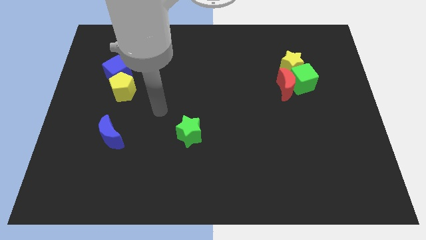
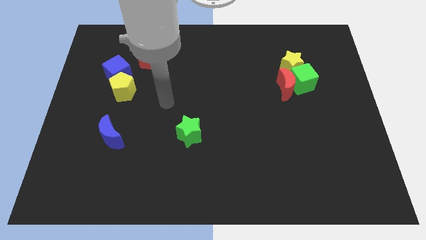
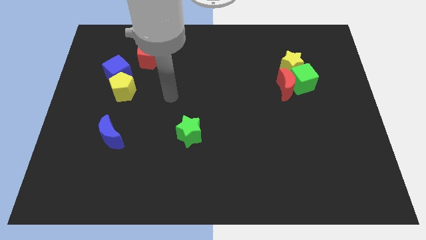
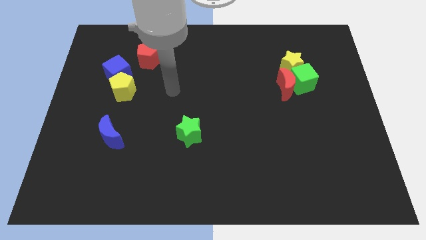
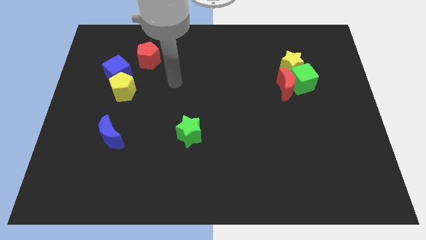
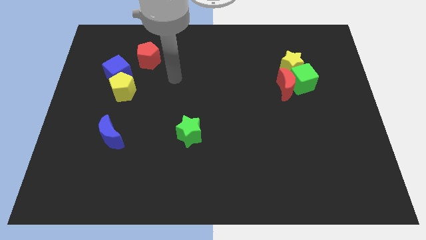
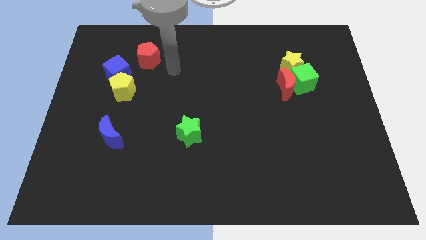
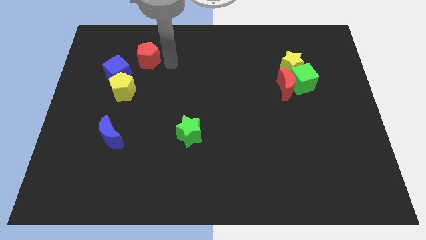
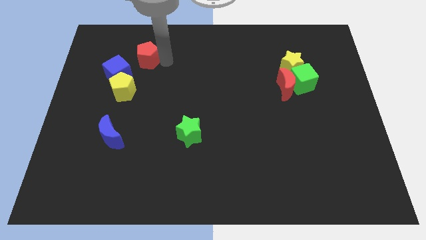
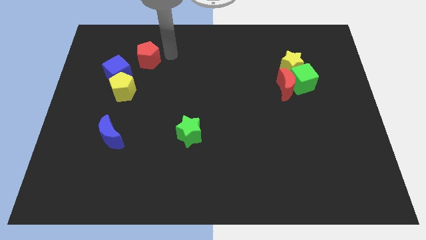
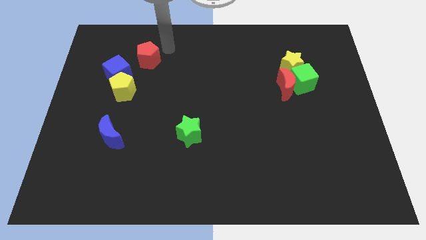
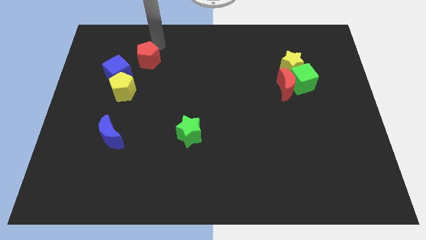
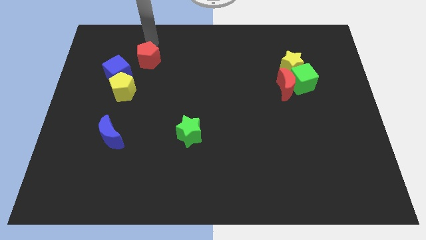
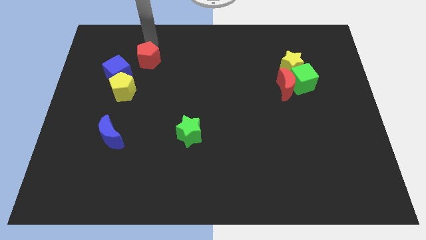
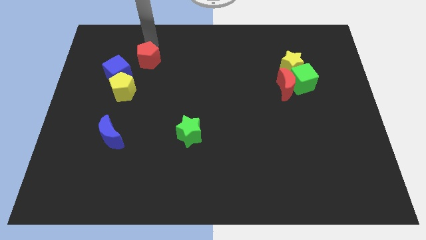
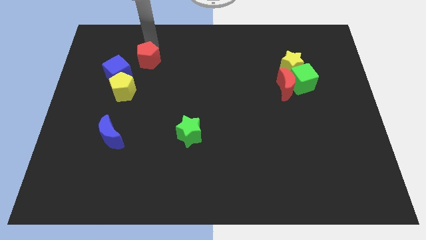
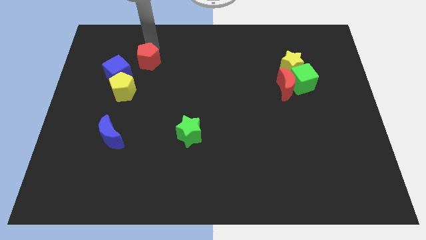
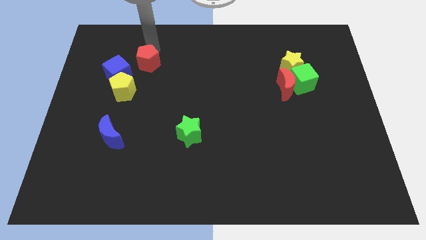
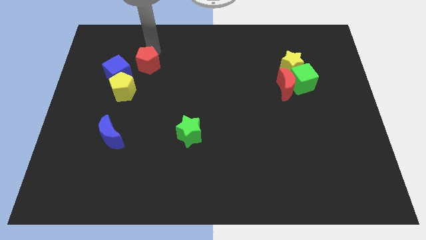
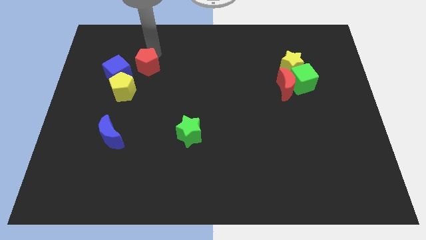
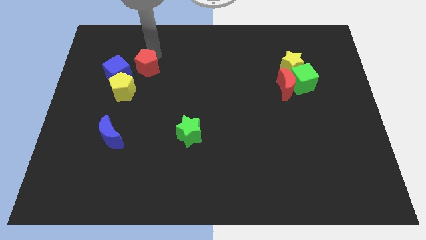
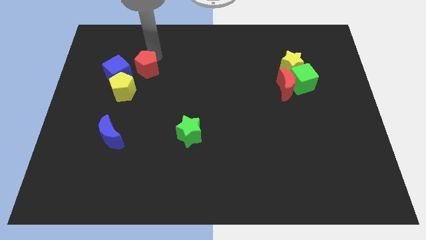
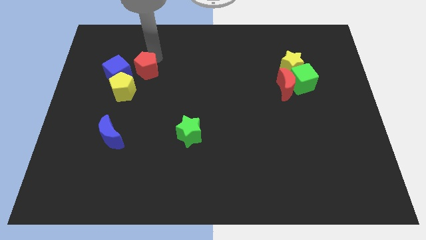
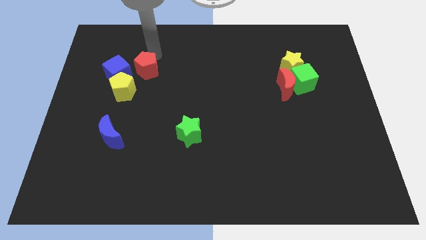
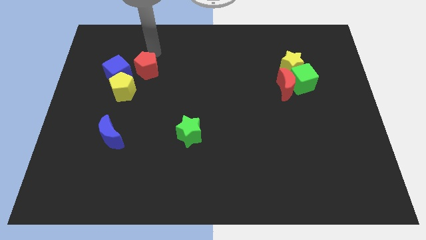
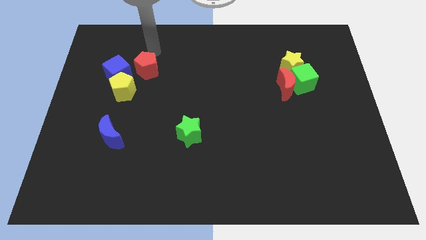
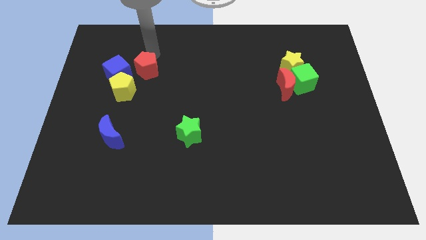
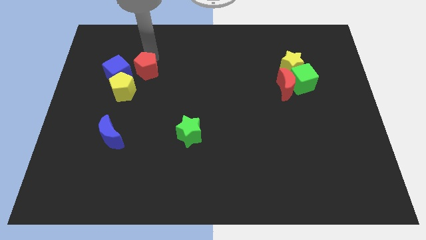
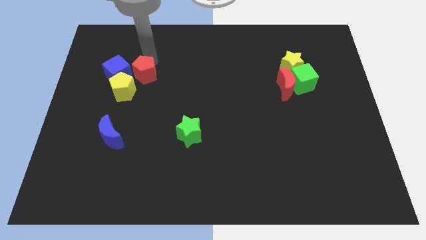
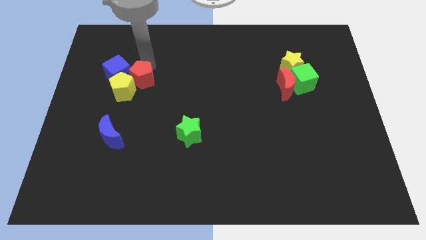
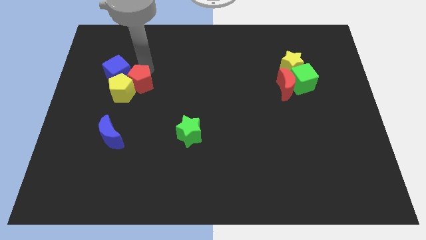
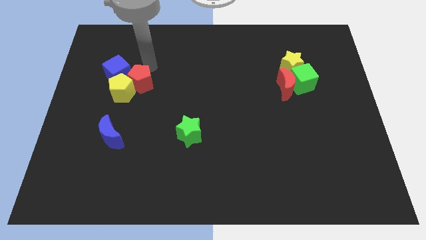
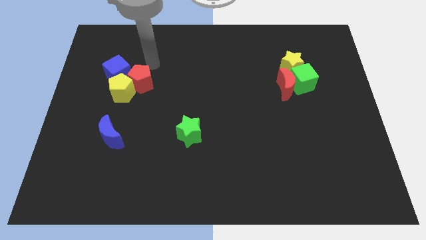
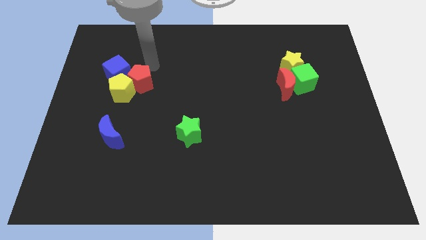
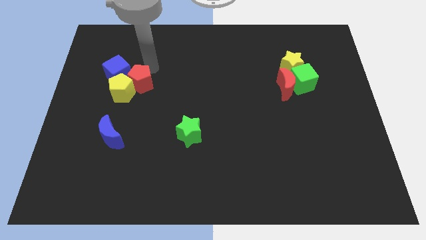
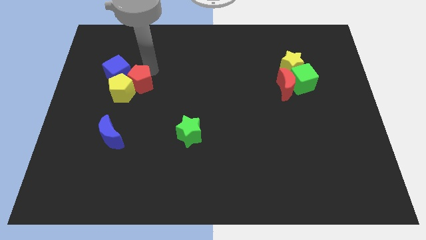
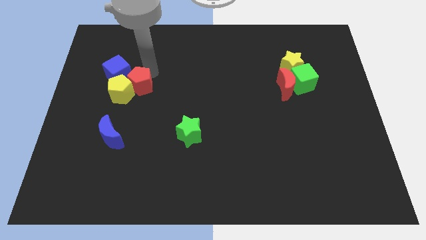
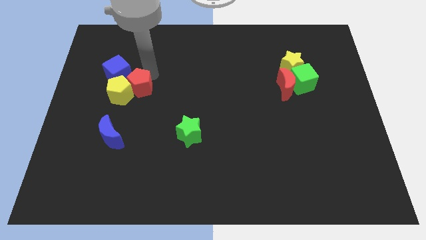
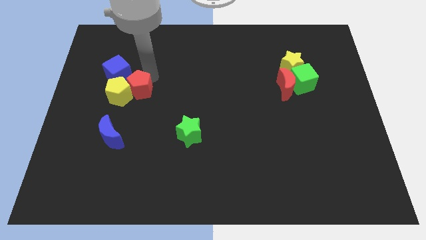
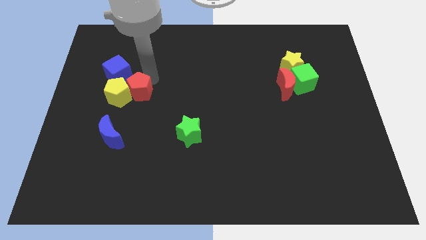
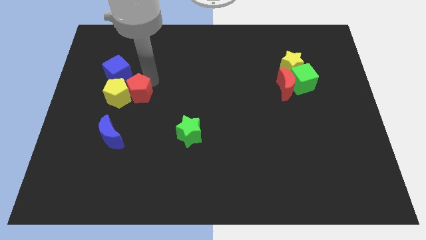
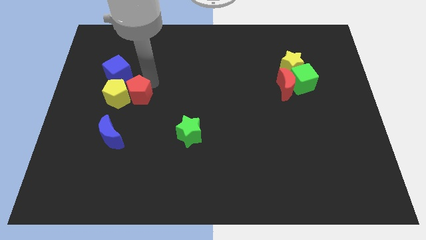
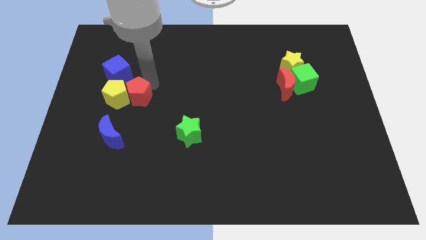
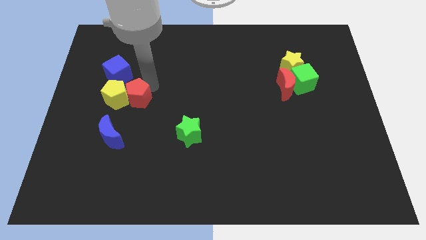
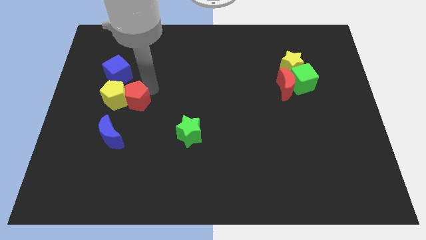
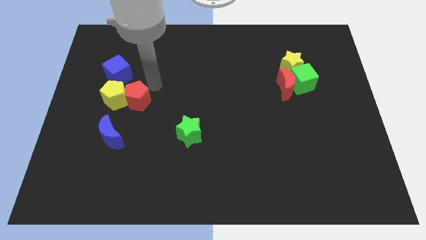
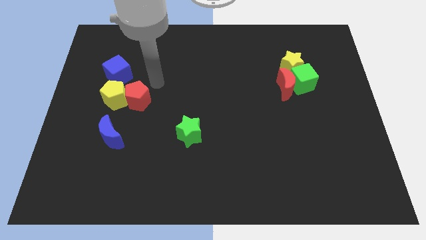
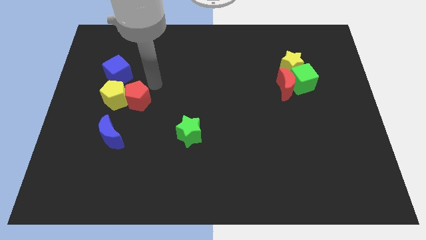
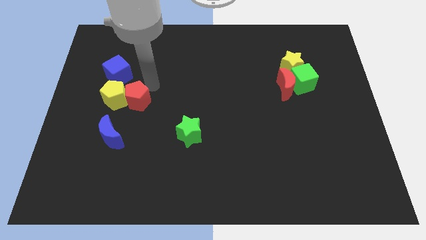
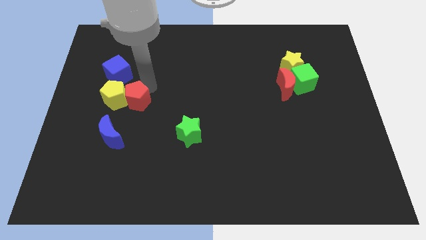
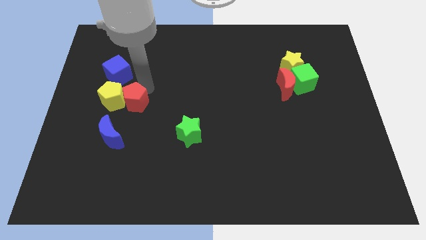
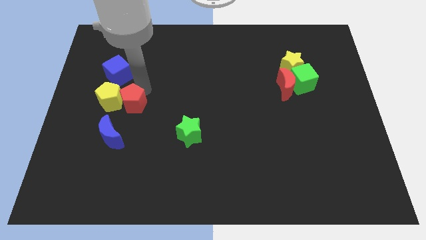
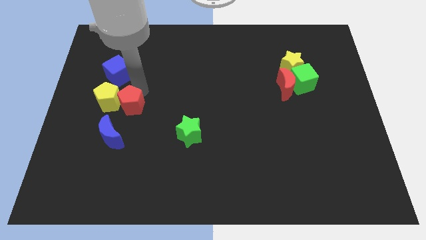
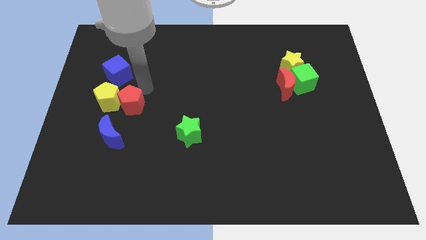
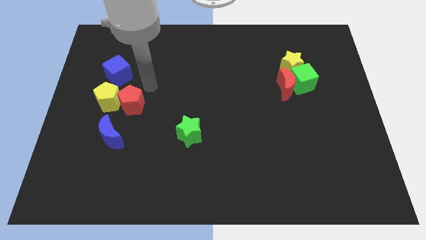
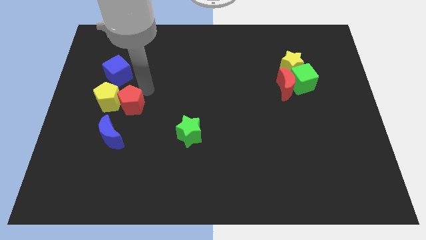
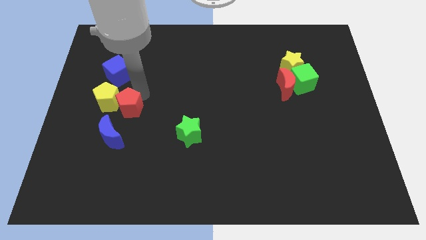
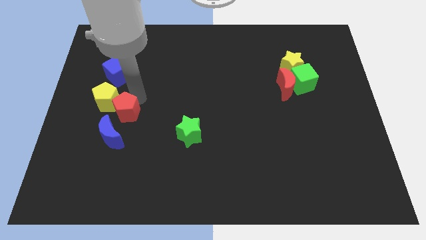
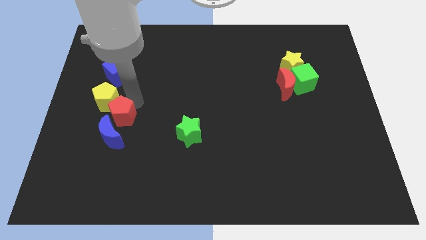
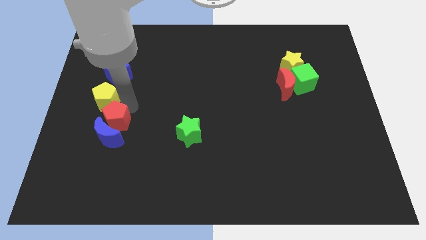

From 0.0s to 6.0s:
push the red pentagon close to the blue moon

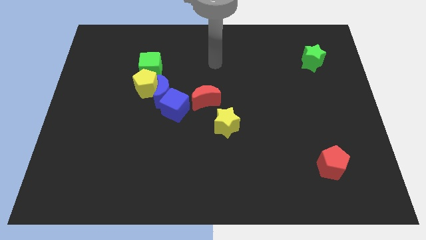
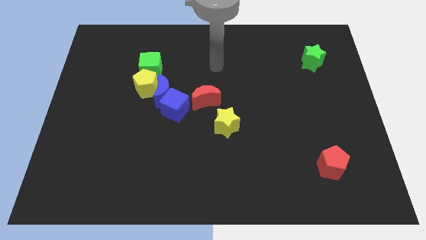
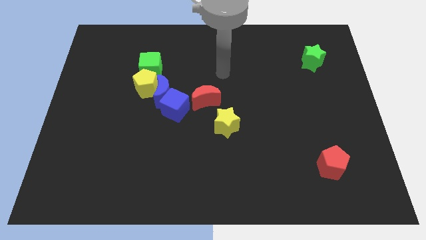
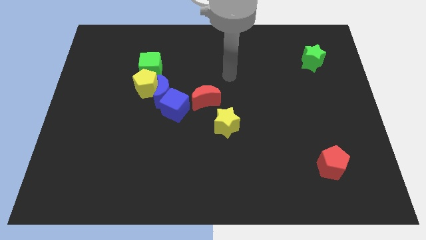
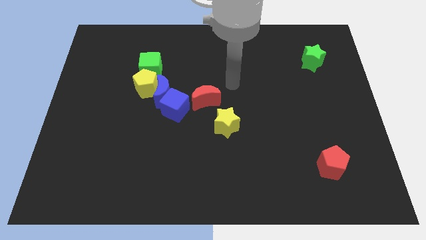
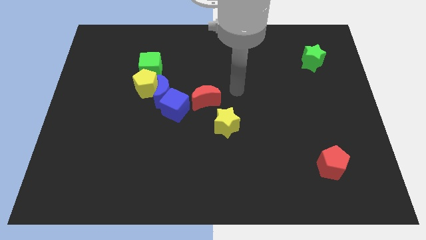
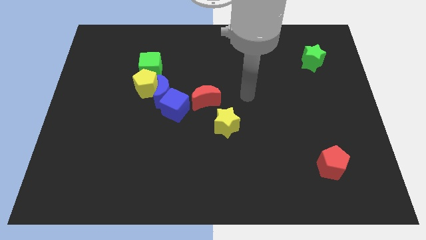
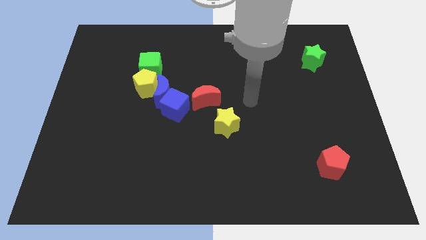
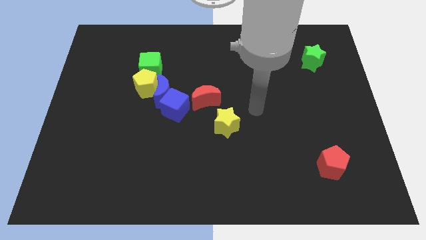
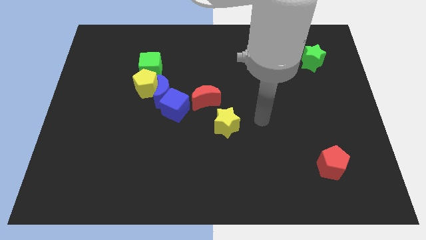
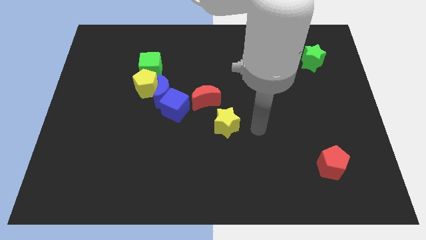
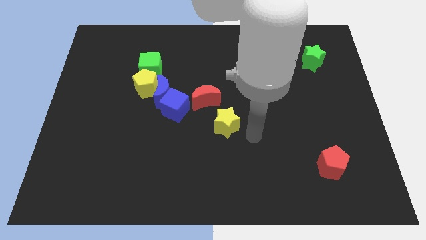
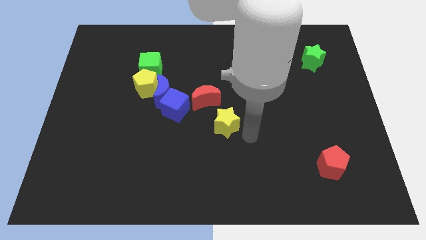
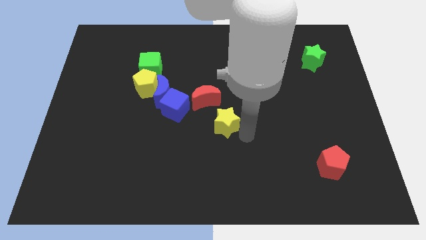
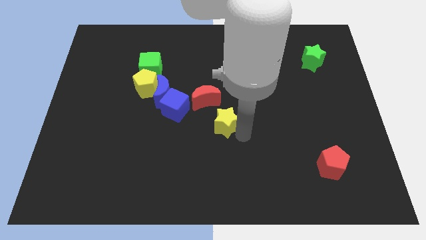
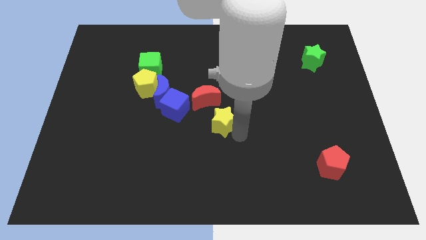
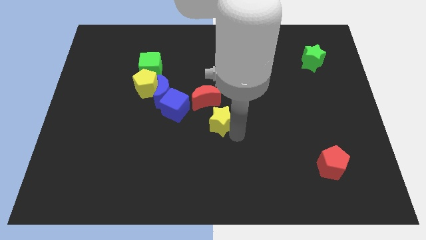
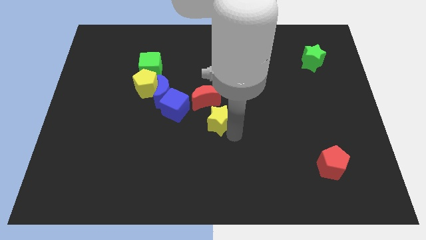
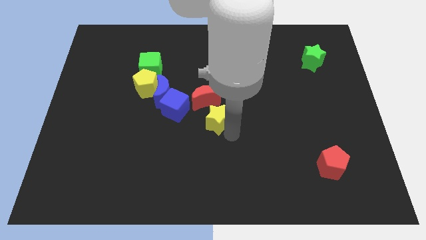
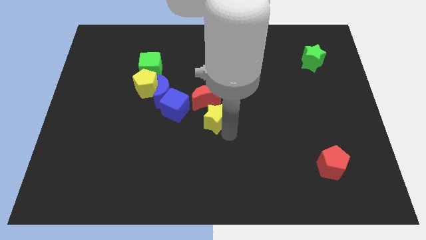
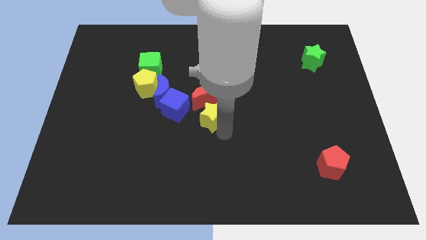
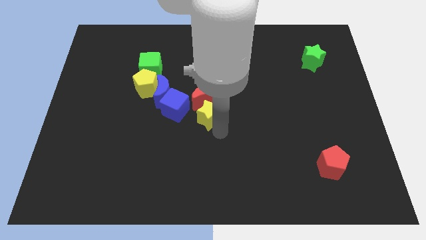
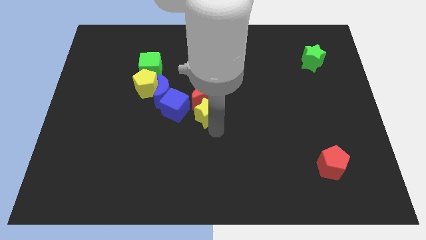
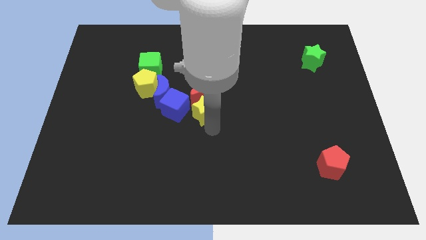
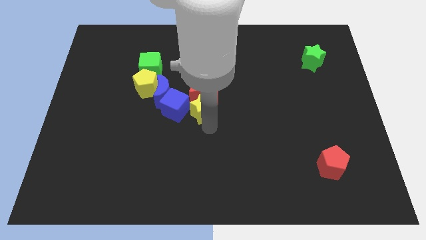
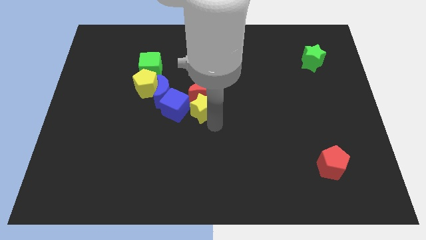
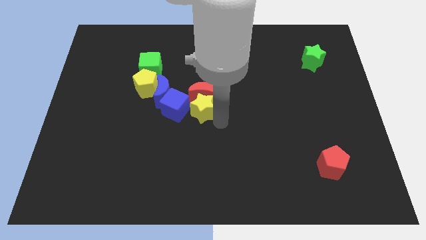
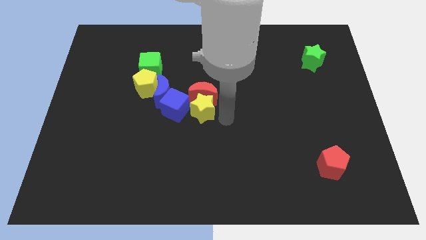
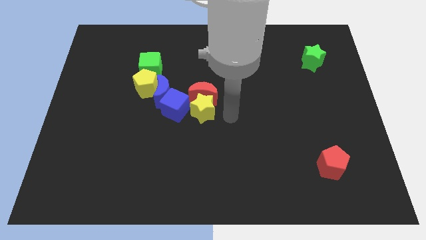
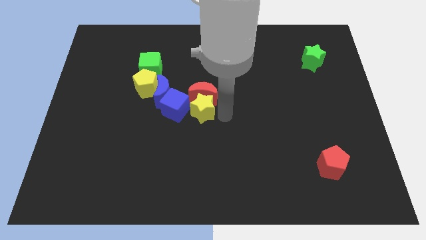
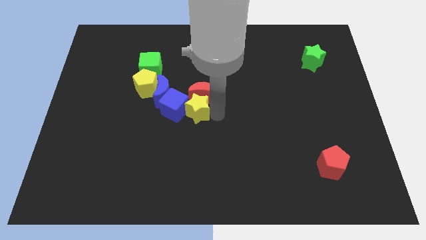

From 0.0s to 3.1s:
put the yellow star to the blue cube
